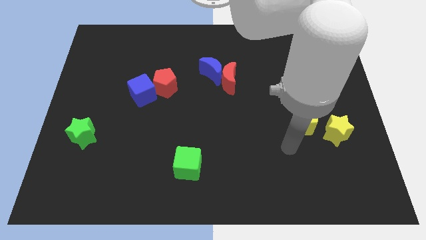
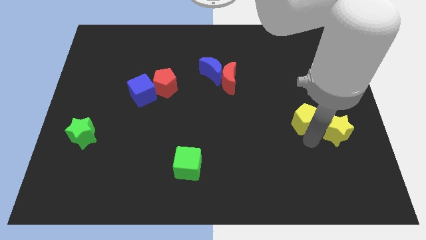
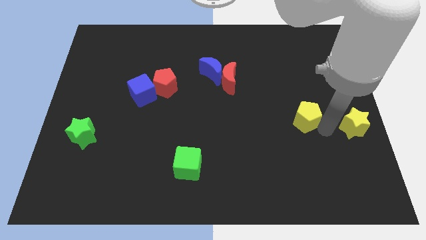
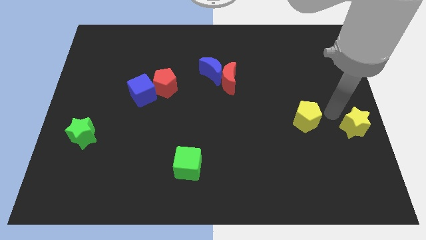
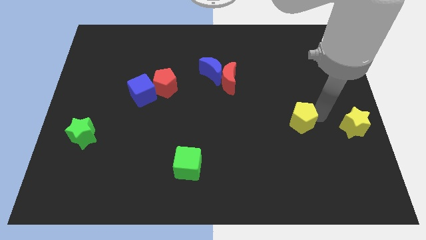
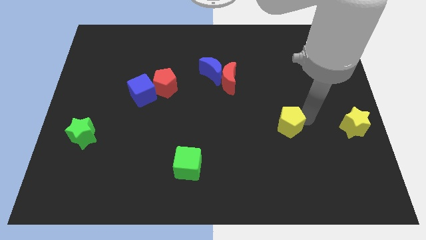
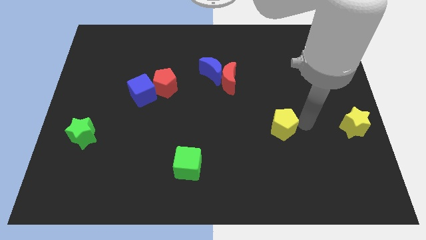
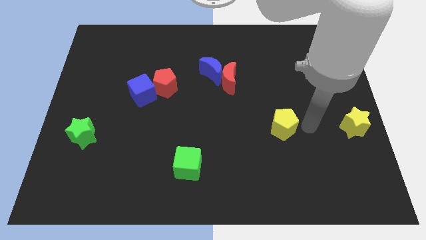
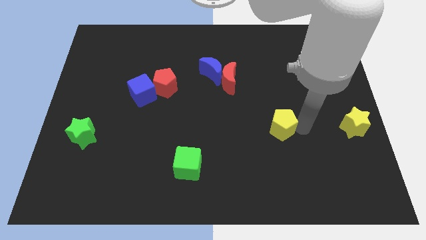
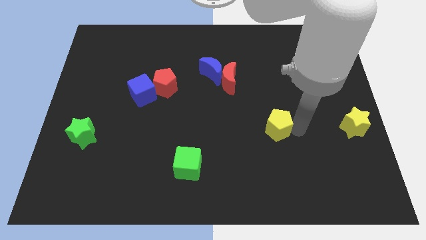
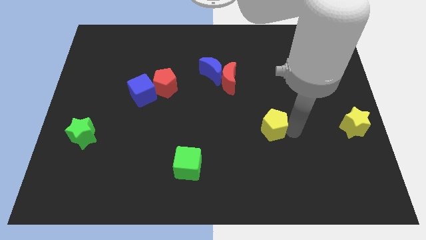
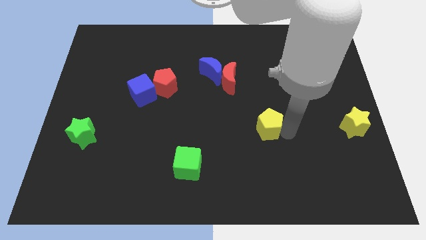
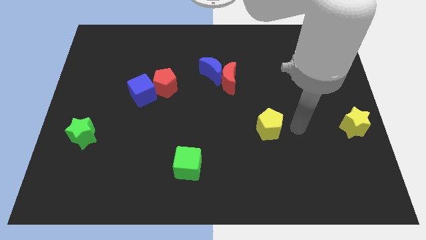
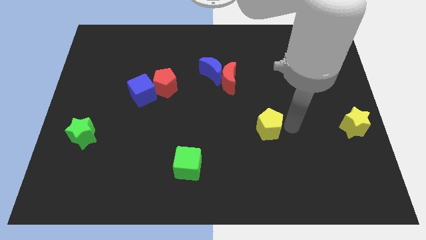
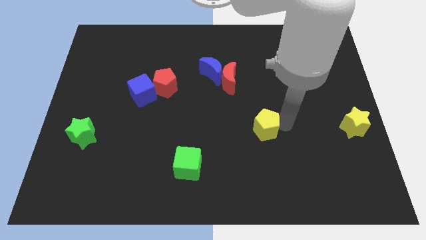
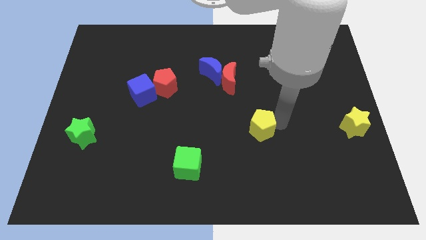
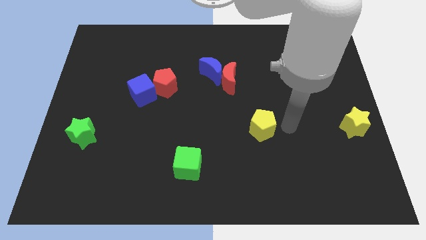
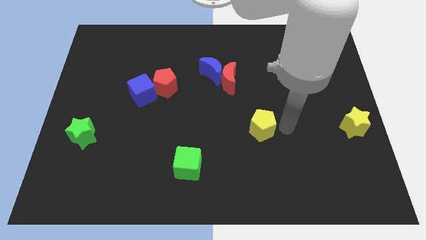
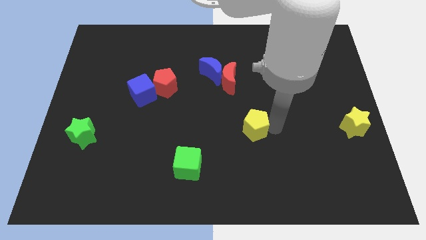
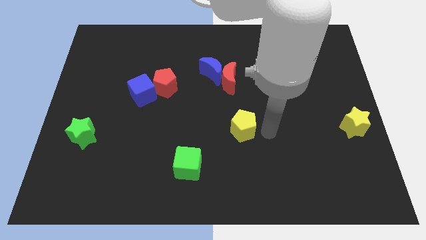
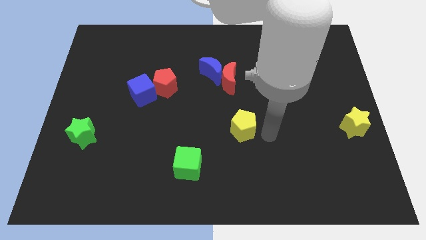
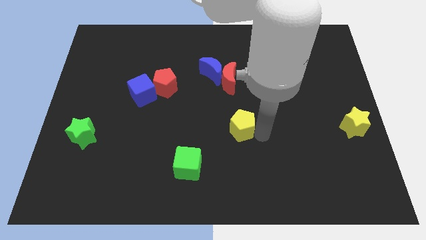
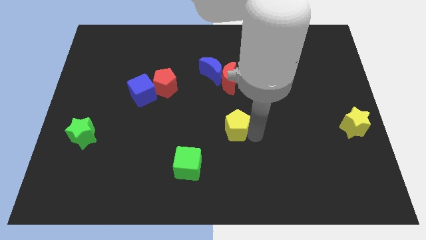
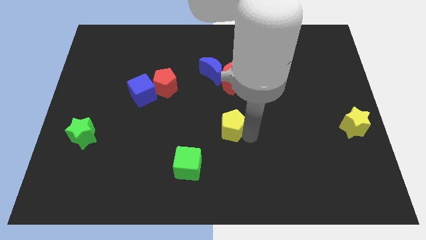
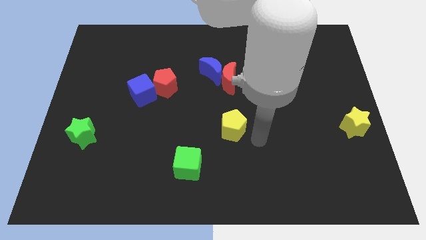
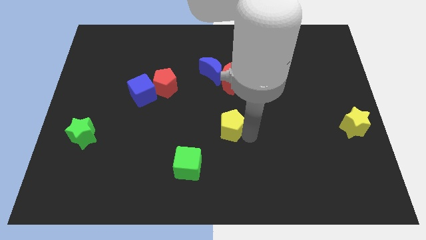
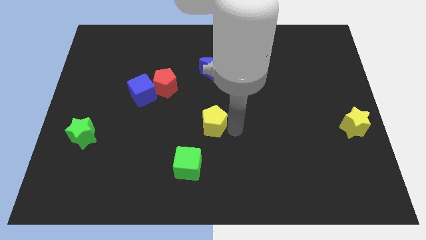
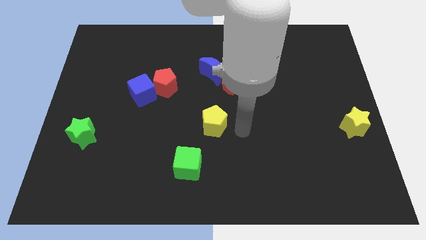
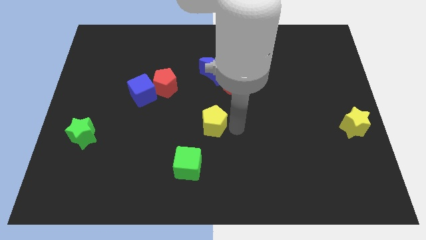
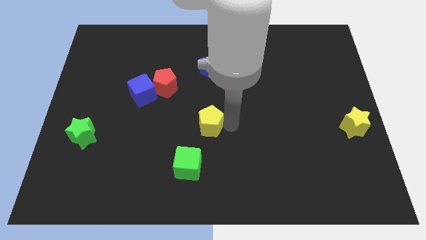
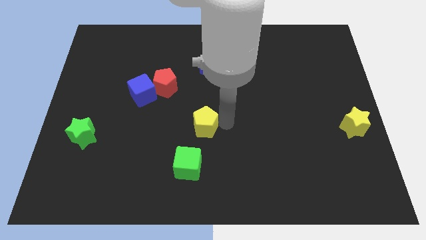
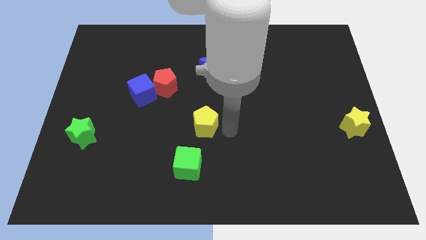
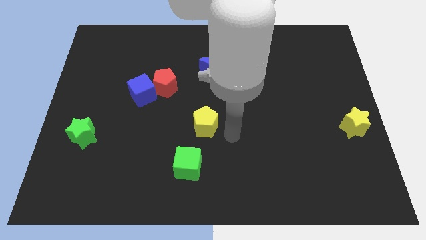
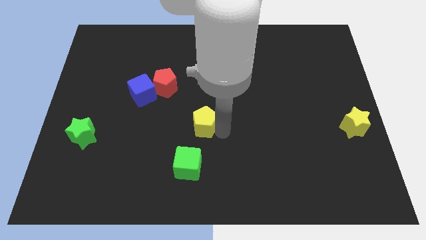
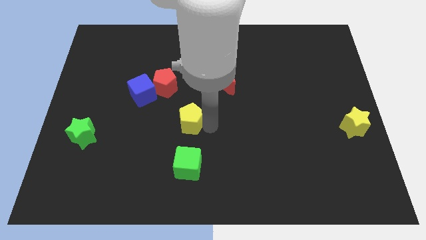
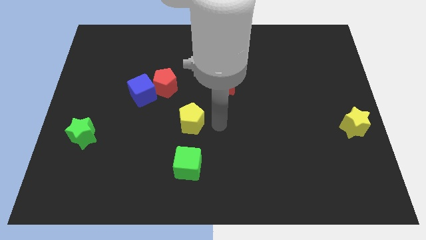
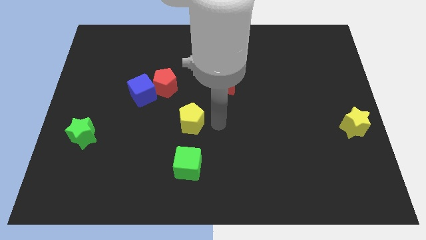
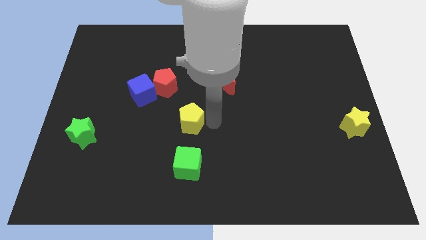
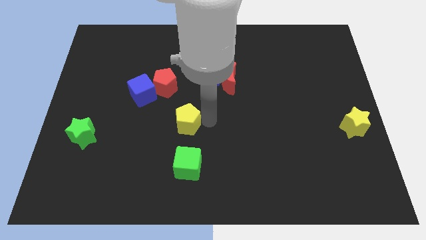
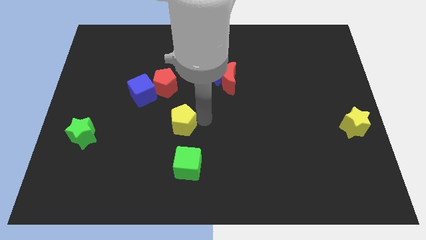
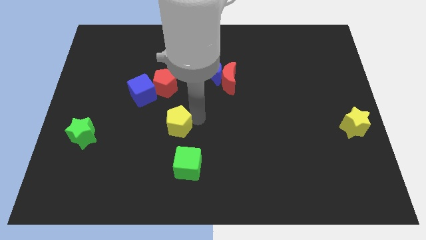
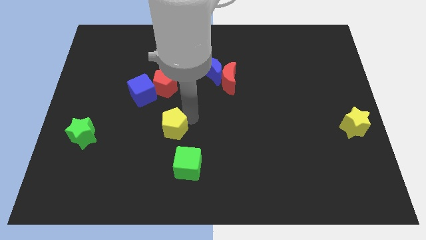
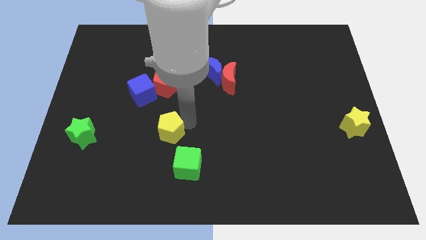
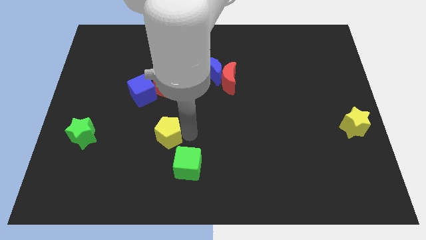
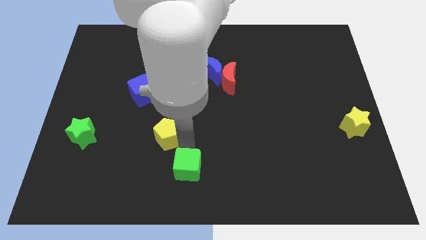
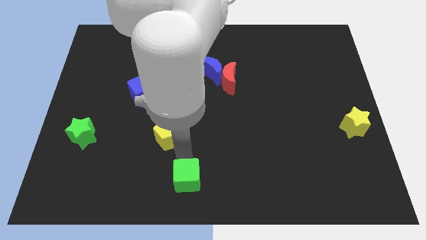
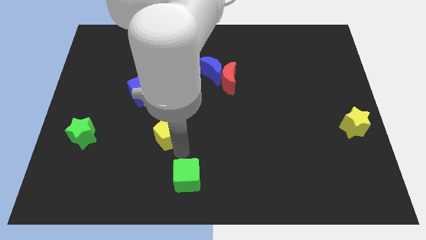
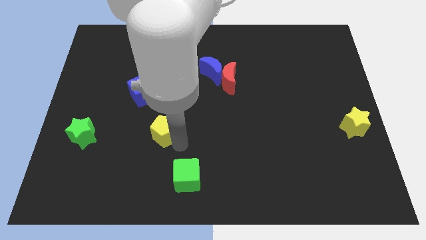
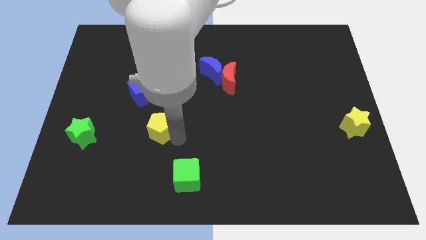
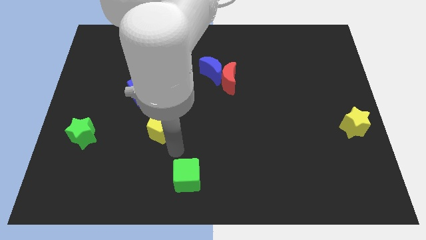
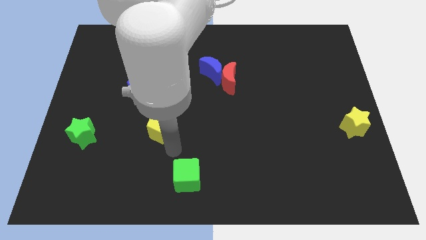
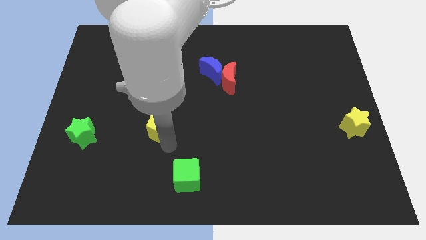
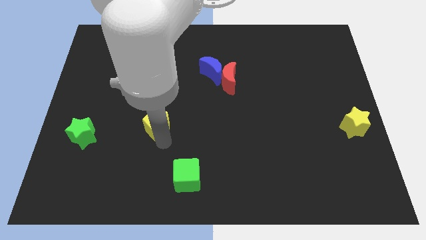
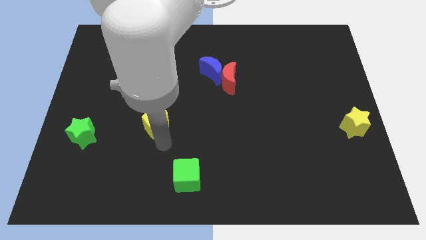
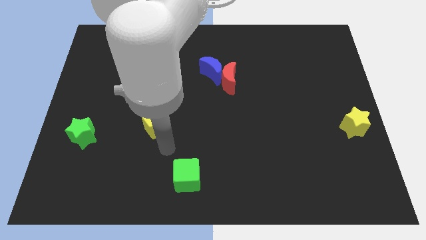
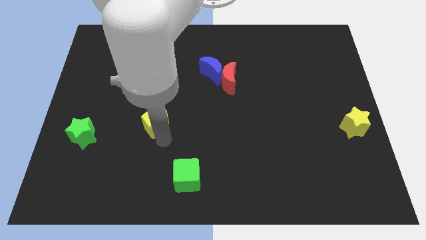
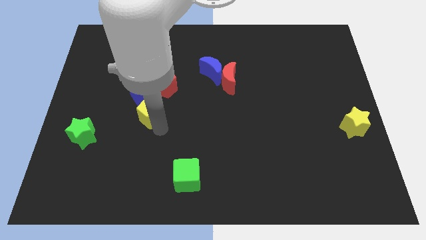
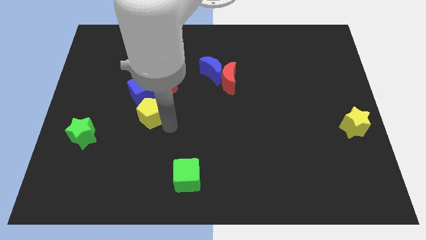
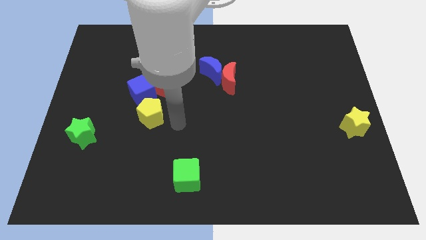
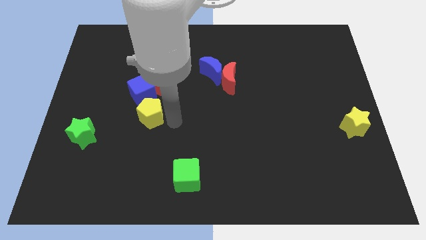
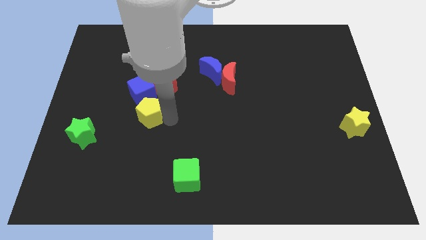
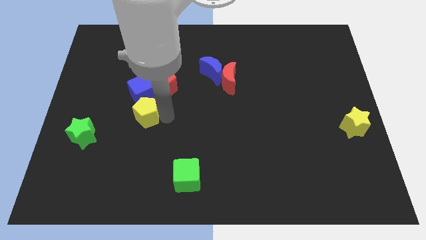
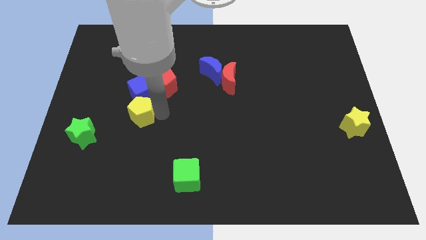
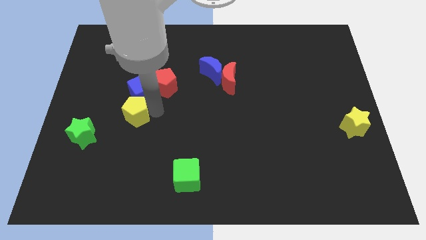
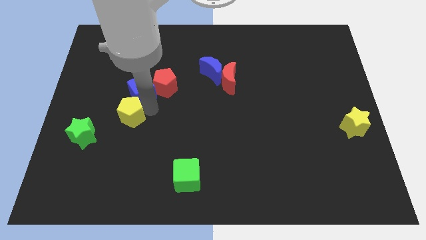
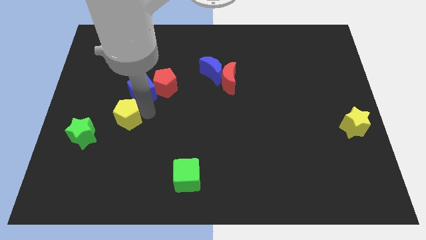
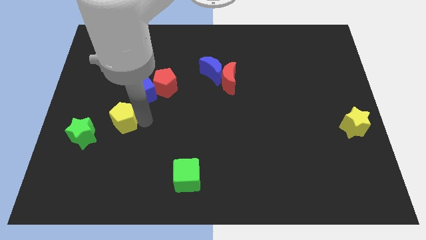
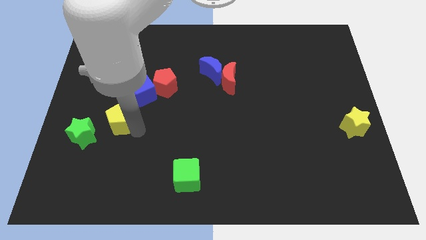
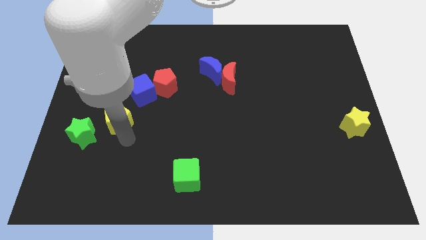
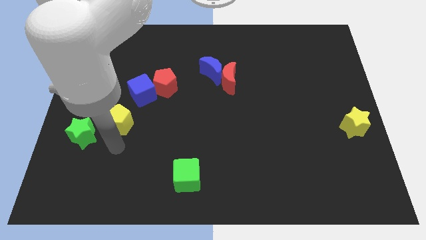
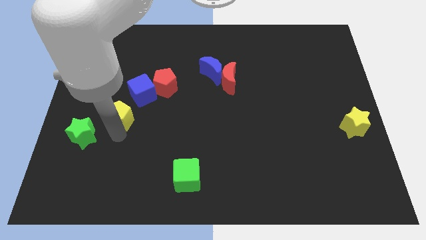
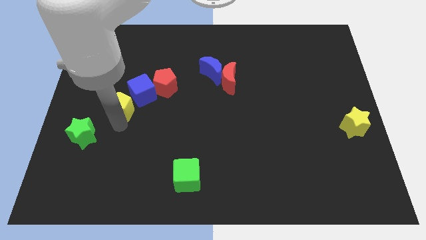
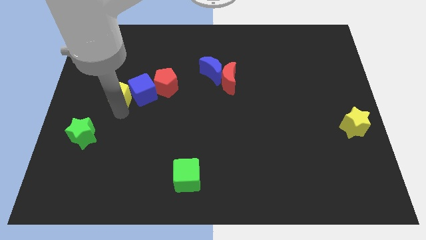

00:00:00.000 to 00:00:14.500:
slide the yellow pentagon to the left side of the red pentagon

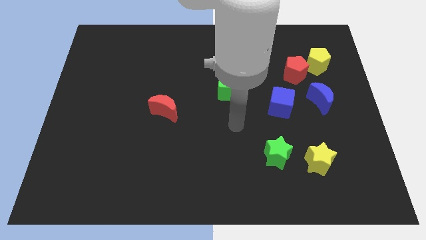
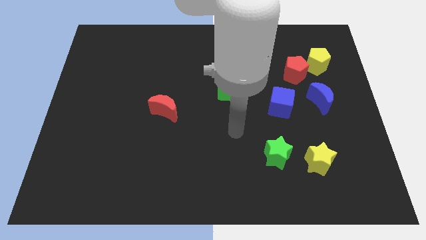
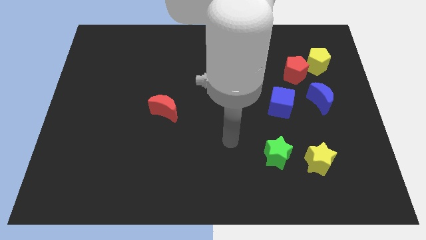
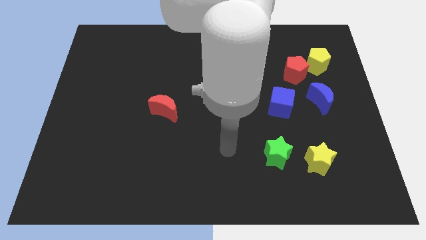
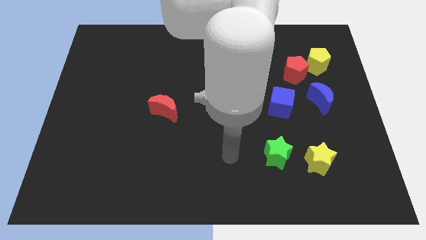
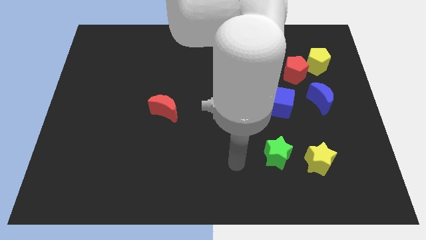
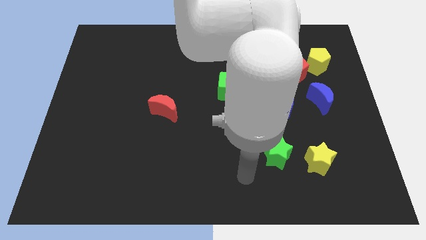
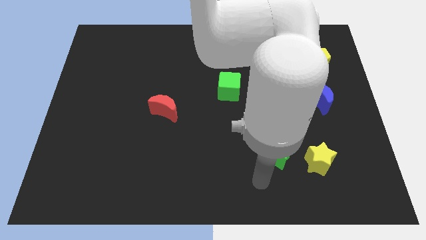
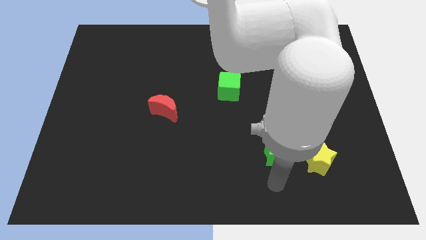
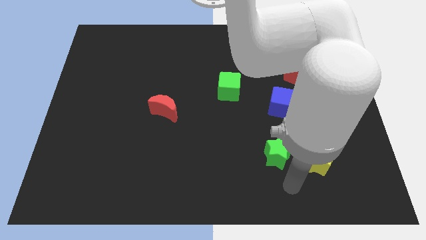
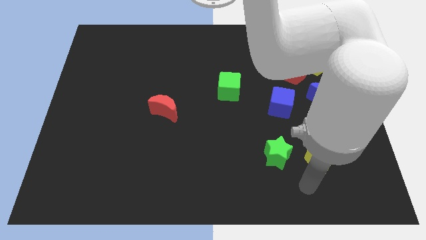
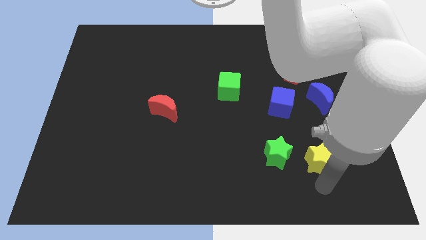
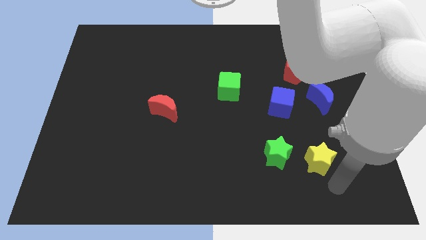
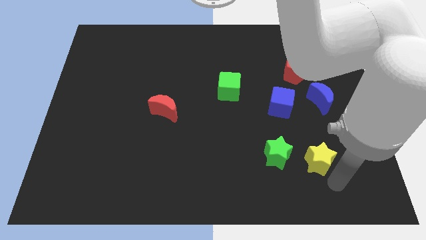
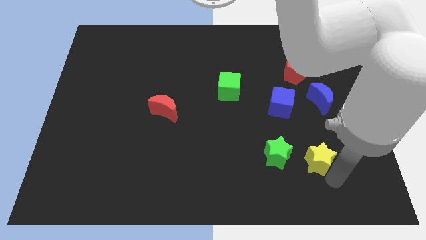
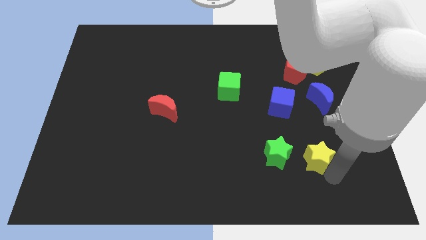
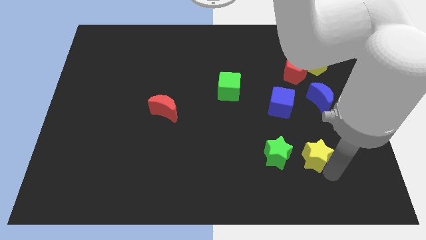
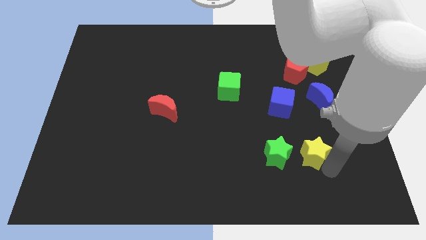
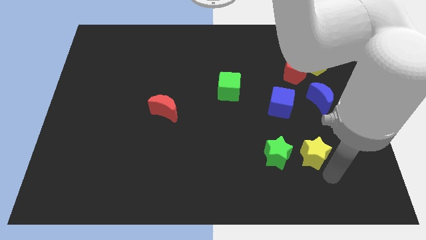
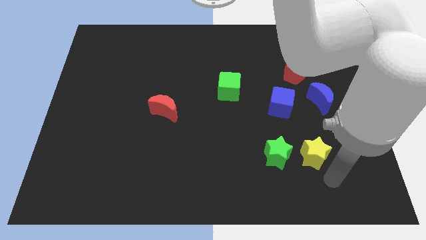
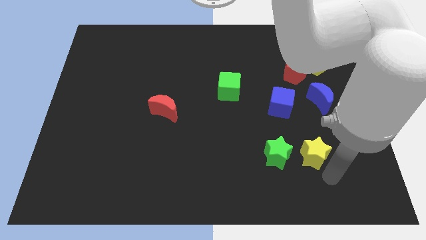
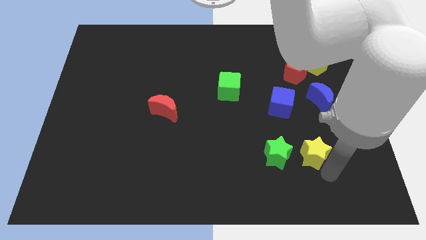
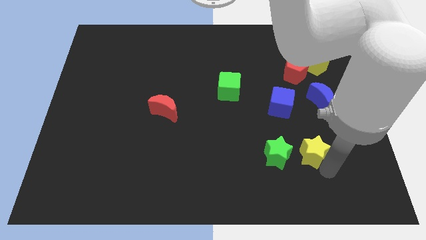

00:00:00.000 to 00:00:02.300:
slide the yellow star diagonally up and to the right of the green star
